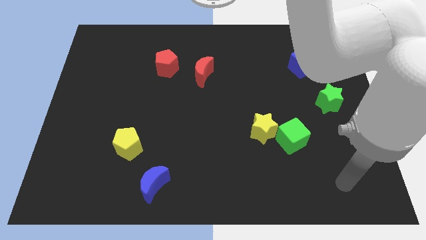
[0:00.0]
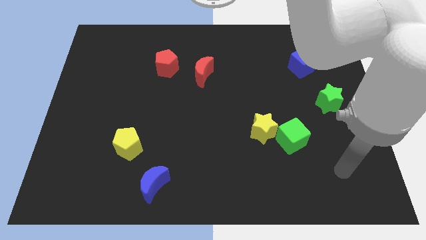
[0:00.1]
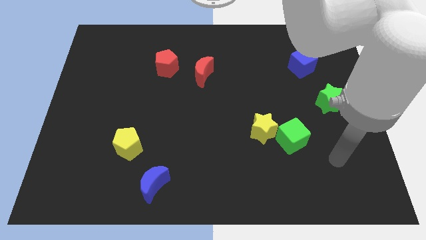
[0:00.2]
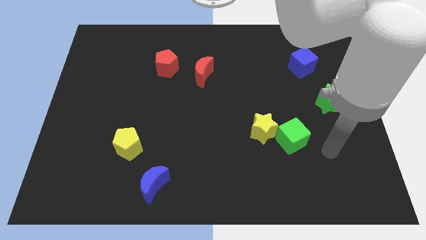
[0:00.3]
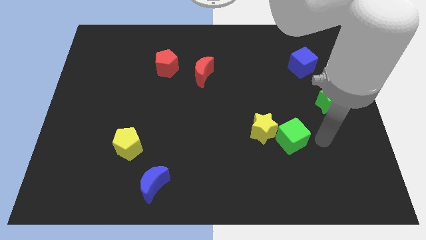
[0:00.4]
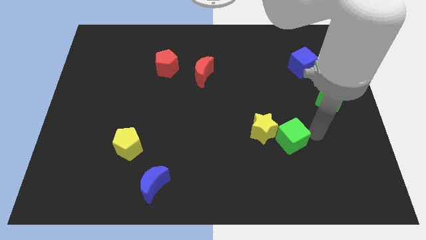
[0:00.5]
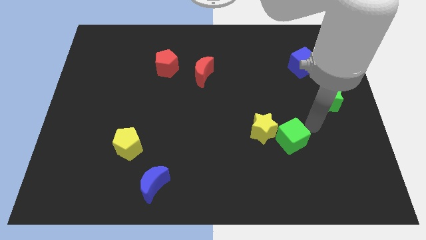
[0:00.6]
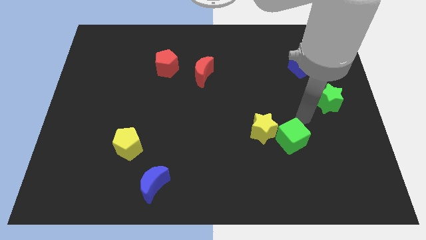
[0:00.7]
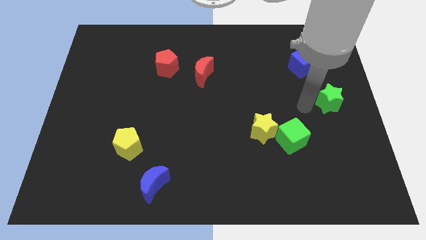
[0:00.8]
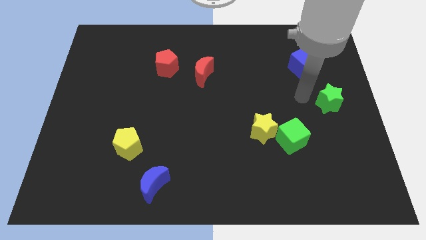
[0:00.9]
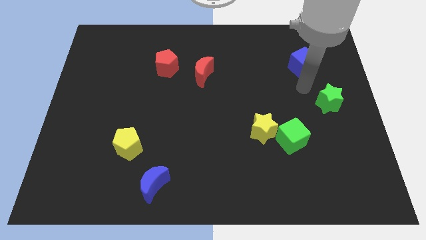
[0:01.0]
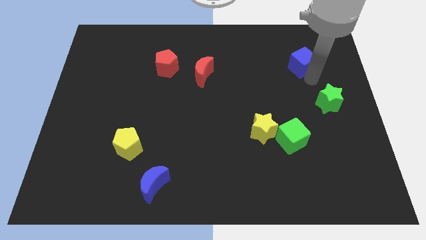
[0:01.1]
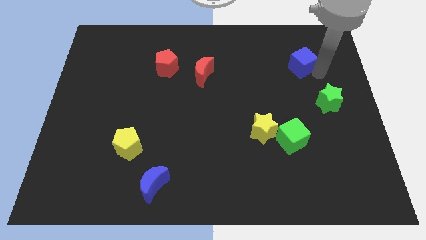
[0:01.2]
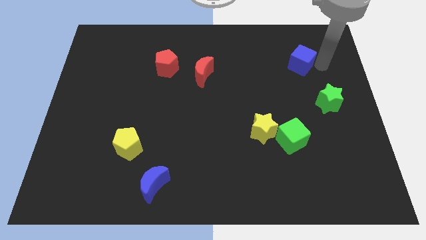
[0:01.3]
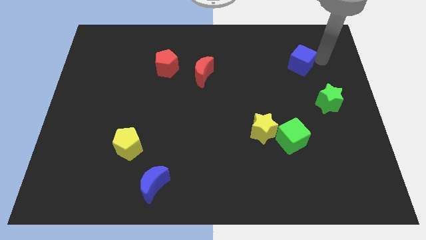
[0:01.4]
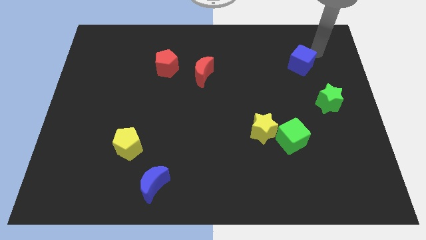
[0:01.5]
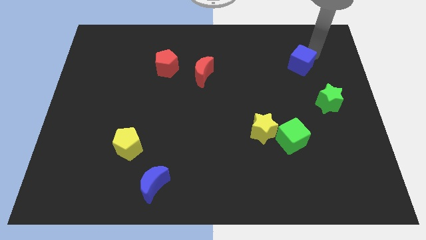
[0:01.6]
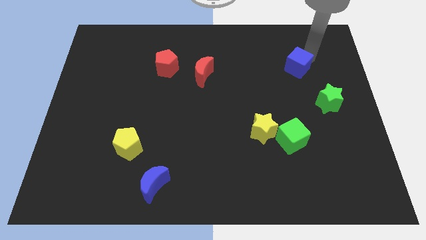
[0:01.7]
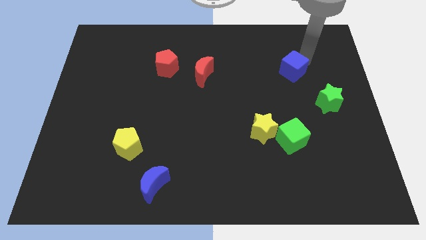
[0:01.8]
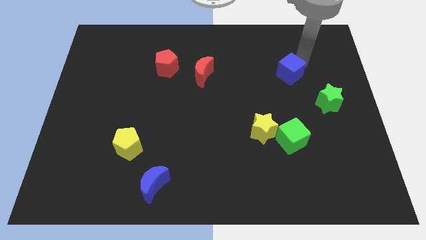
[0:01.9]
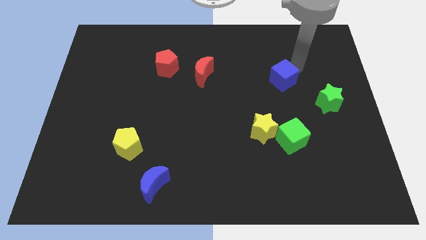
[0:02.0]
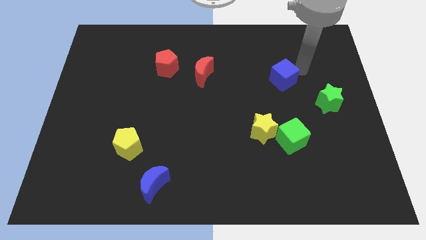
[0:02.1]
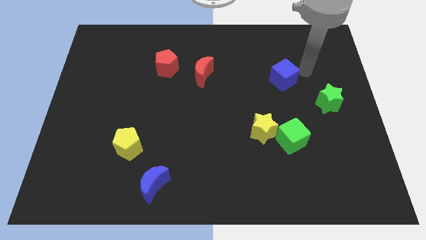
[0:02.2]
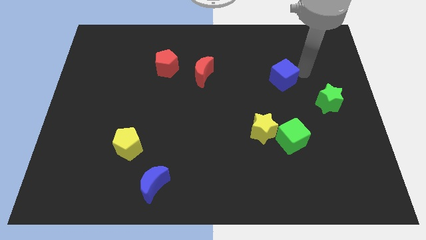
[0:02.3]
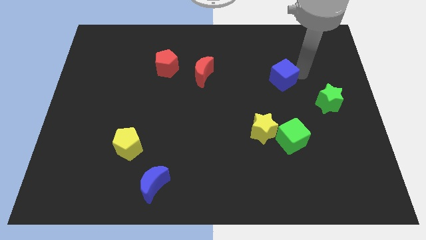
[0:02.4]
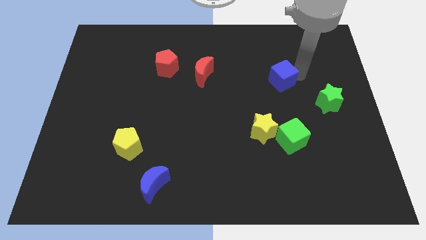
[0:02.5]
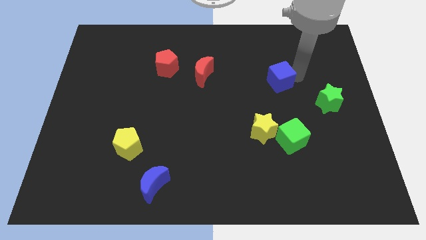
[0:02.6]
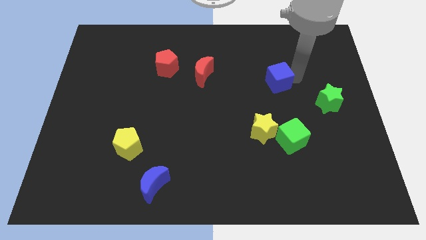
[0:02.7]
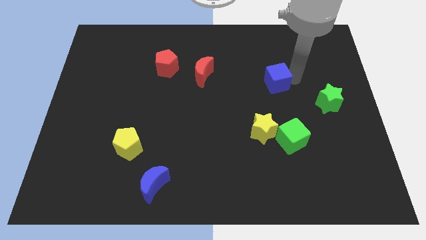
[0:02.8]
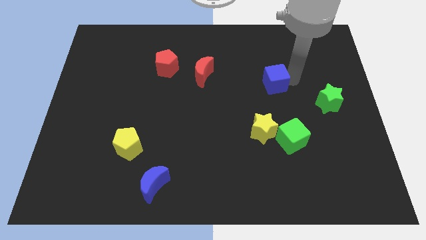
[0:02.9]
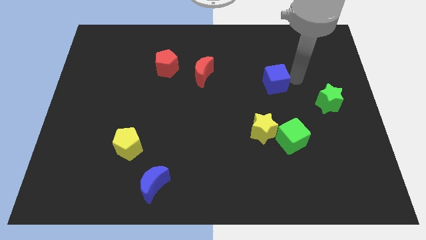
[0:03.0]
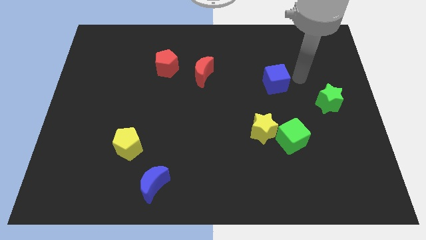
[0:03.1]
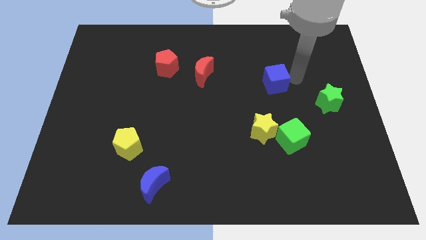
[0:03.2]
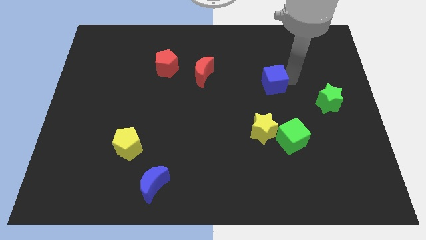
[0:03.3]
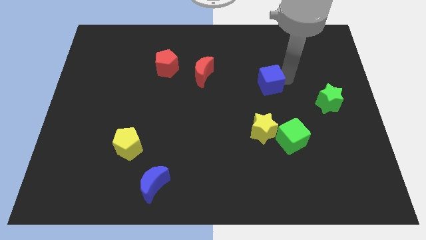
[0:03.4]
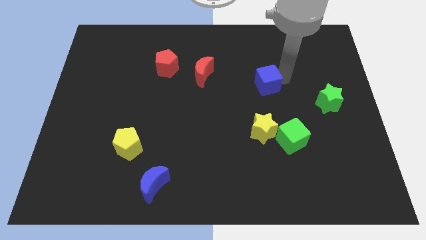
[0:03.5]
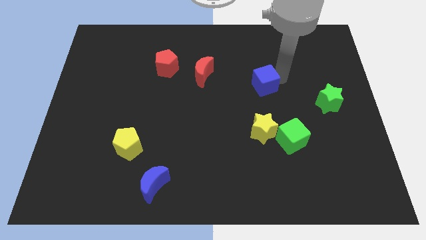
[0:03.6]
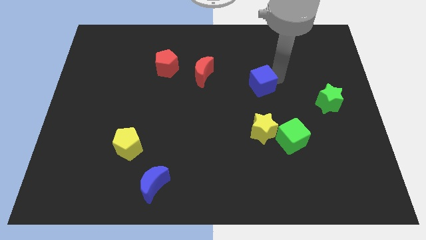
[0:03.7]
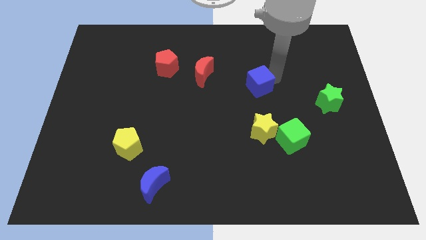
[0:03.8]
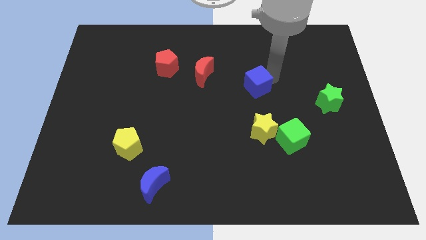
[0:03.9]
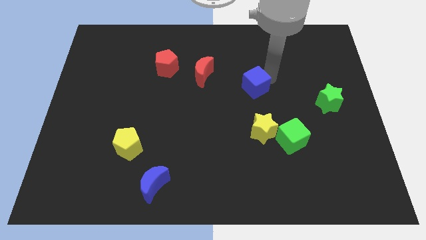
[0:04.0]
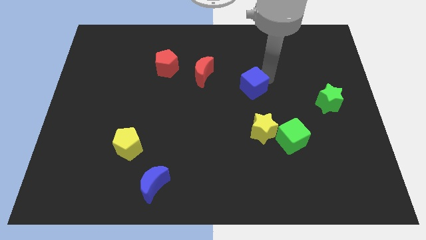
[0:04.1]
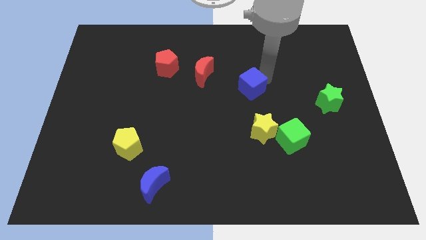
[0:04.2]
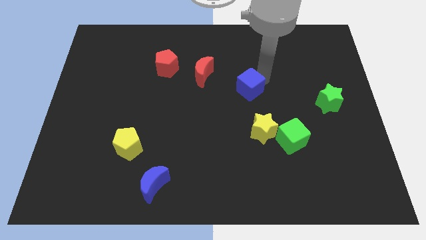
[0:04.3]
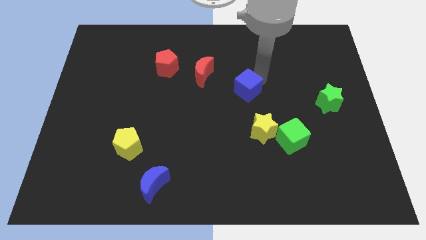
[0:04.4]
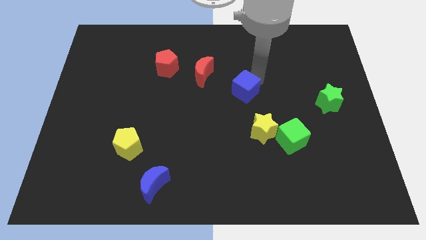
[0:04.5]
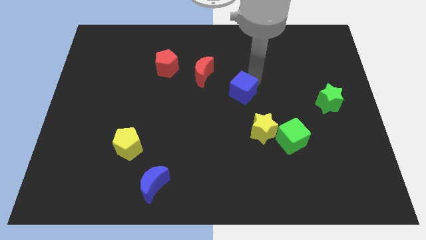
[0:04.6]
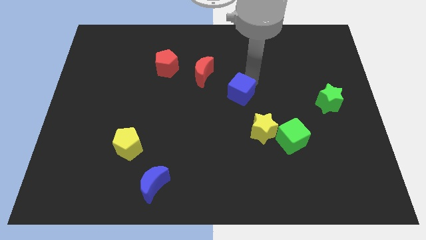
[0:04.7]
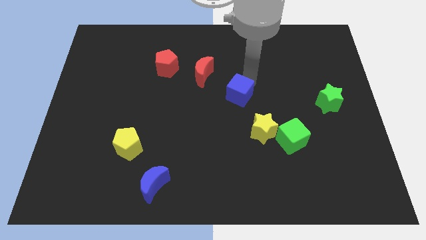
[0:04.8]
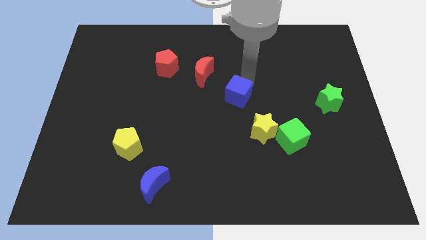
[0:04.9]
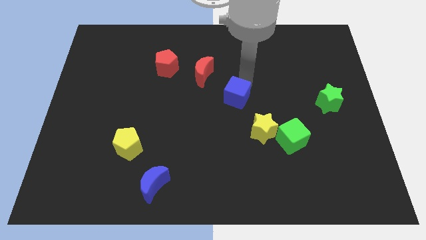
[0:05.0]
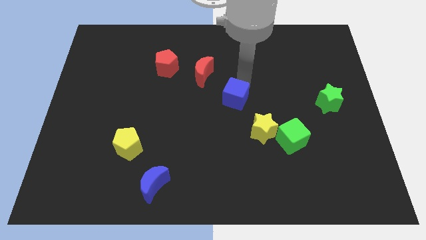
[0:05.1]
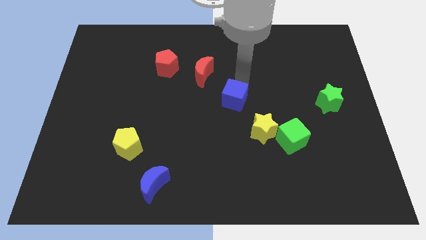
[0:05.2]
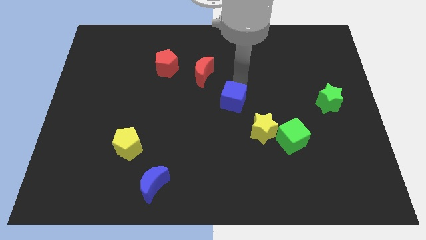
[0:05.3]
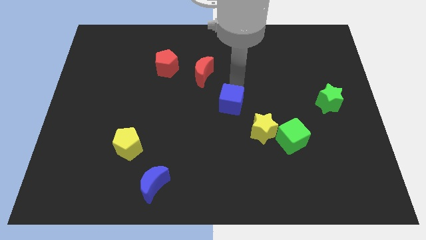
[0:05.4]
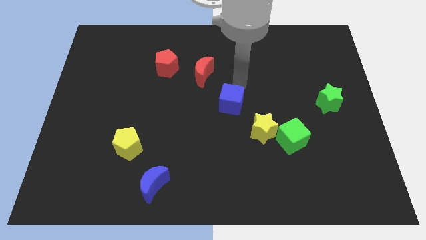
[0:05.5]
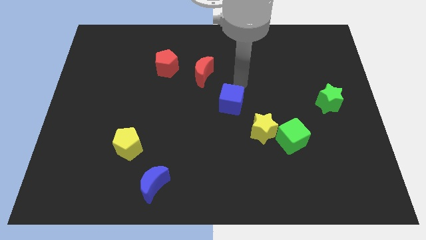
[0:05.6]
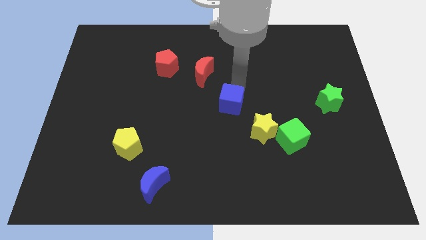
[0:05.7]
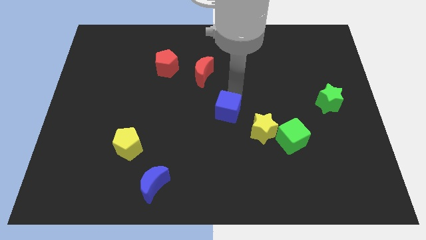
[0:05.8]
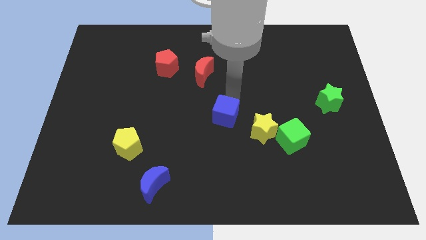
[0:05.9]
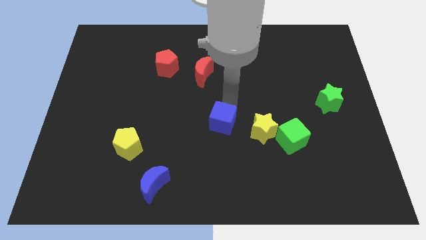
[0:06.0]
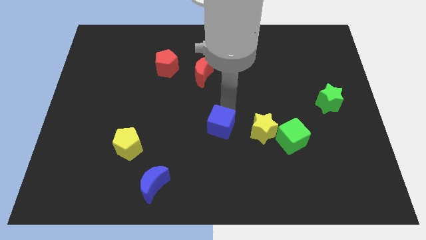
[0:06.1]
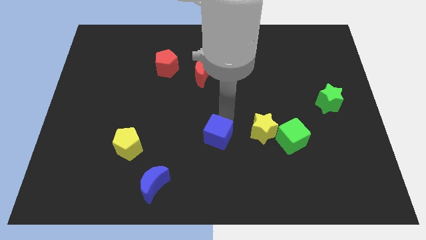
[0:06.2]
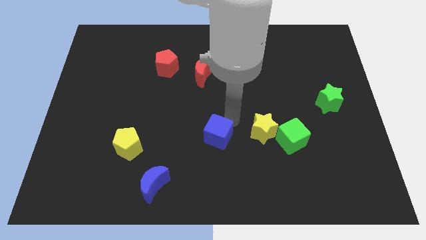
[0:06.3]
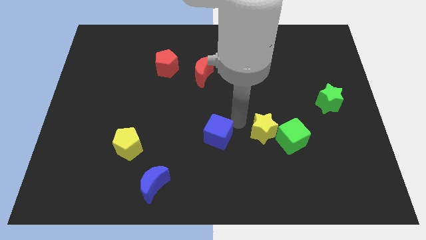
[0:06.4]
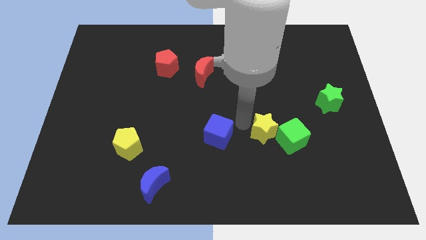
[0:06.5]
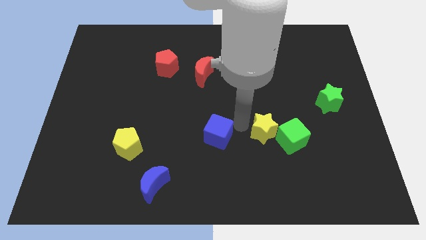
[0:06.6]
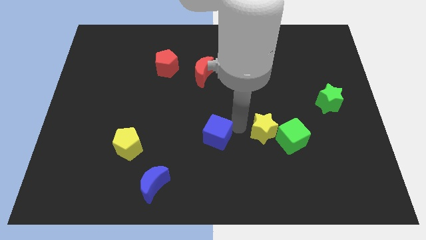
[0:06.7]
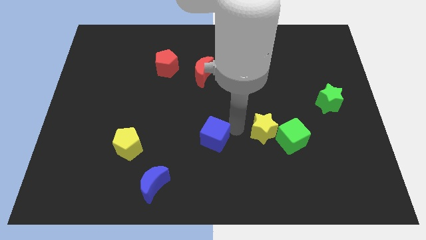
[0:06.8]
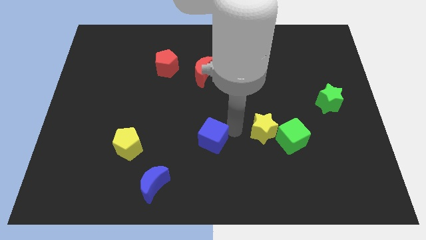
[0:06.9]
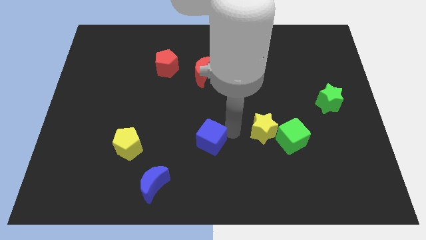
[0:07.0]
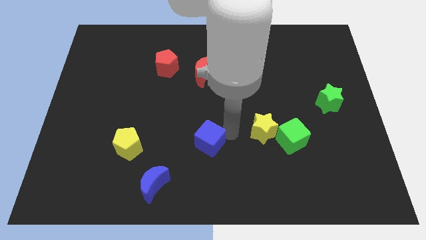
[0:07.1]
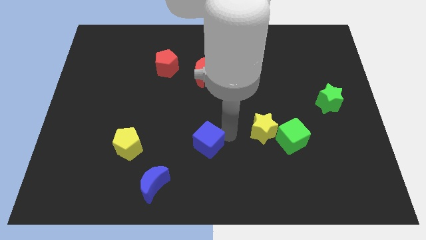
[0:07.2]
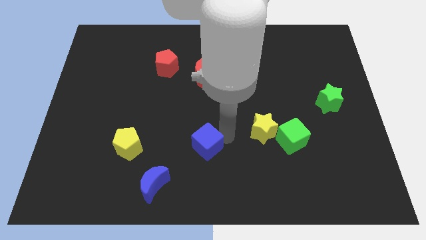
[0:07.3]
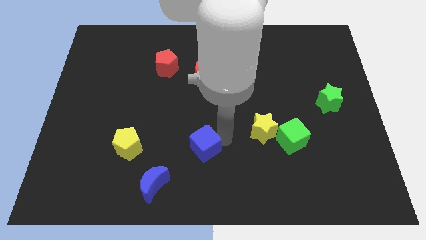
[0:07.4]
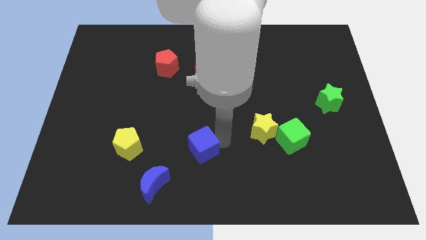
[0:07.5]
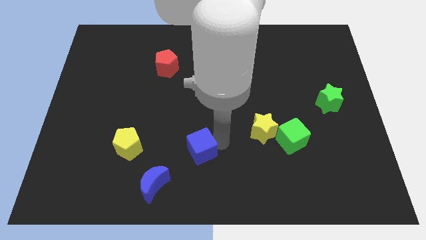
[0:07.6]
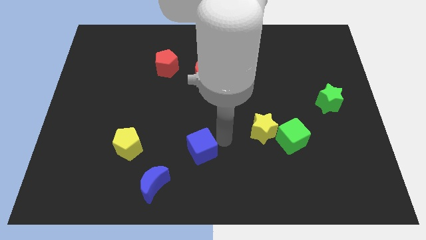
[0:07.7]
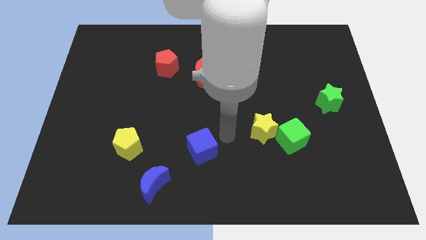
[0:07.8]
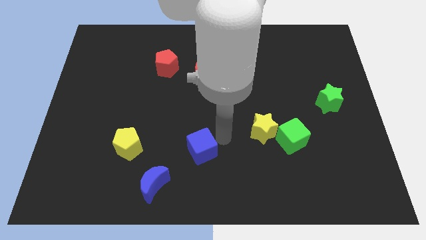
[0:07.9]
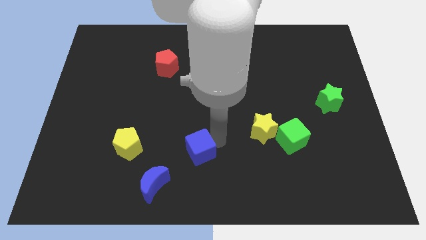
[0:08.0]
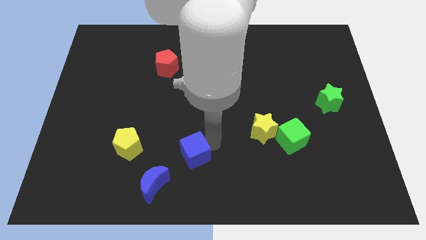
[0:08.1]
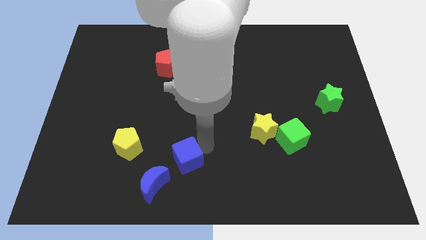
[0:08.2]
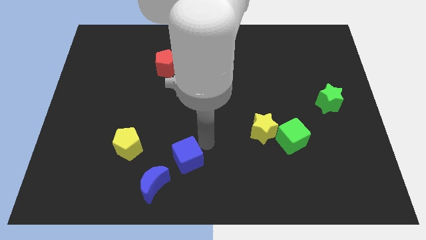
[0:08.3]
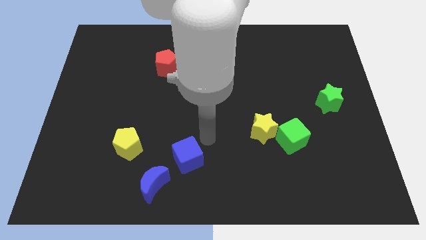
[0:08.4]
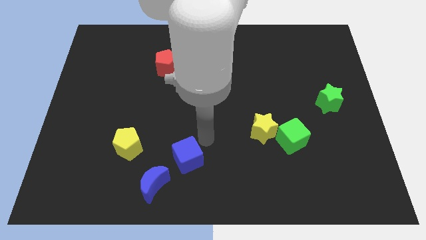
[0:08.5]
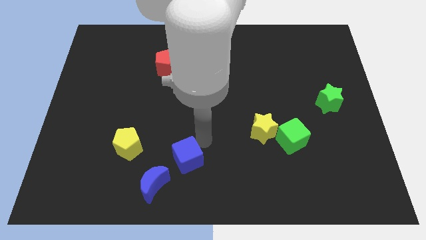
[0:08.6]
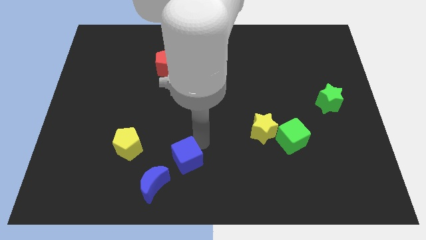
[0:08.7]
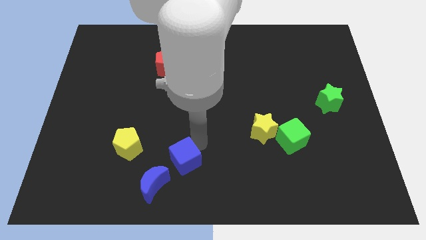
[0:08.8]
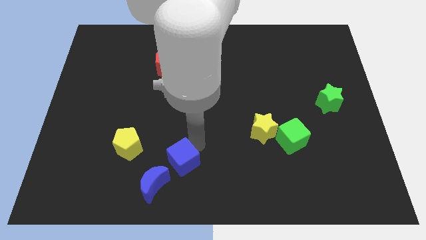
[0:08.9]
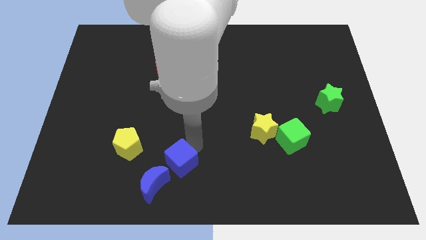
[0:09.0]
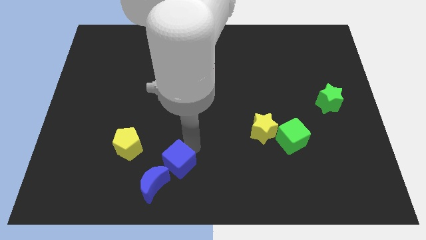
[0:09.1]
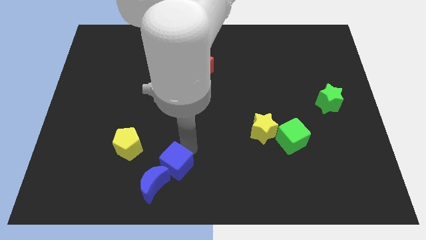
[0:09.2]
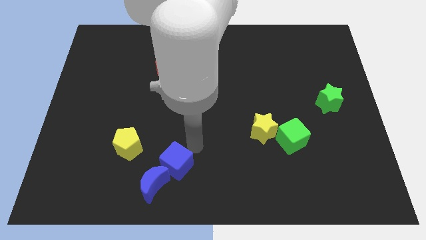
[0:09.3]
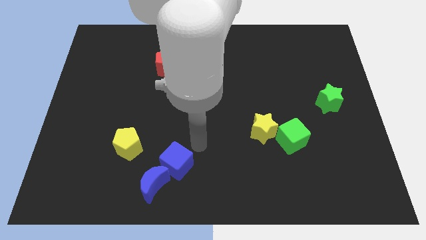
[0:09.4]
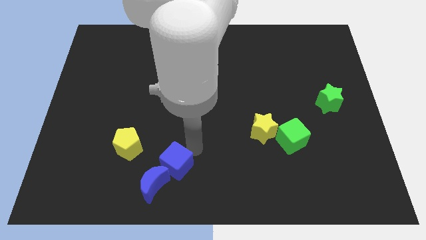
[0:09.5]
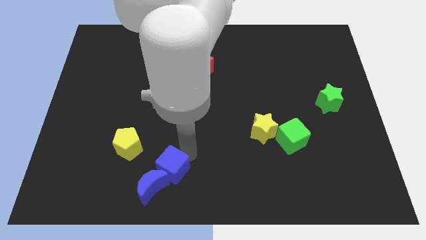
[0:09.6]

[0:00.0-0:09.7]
push the blue cube towards the blue moon
